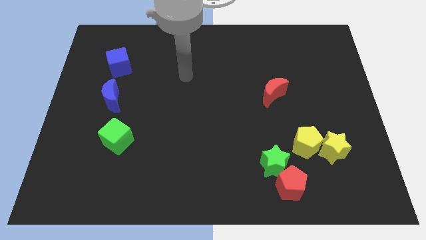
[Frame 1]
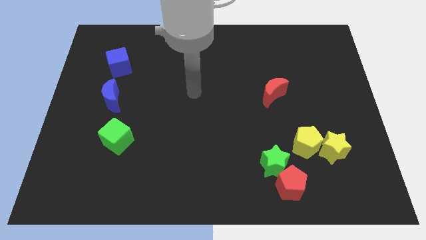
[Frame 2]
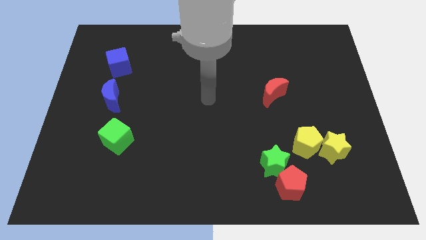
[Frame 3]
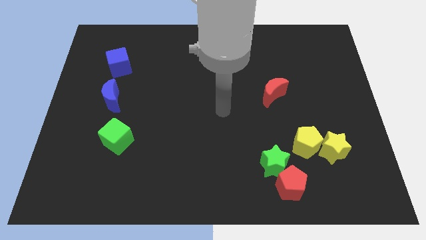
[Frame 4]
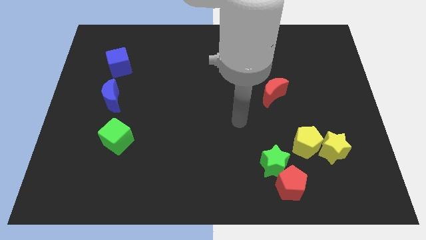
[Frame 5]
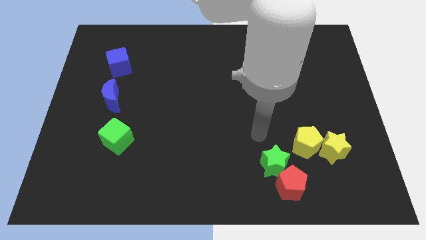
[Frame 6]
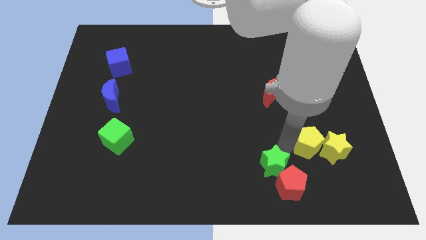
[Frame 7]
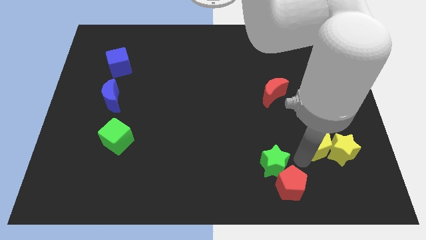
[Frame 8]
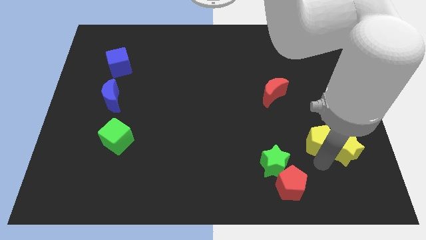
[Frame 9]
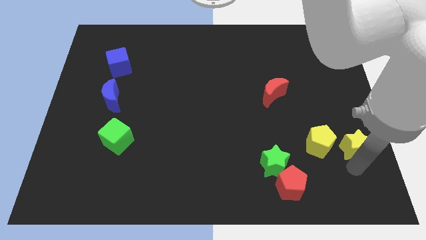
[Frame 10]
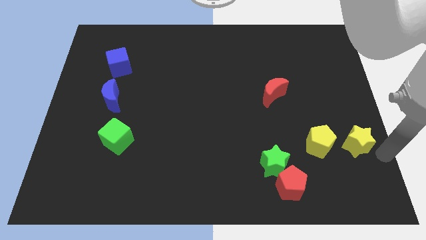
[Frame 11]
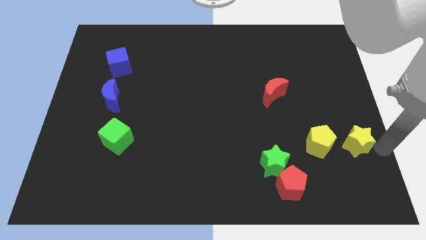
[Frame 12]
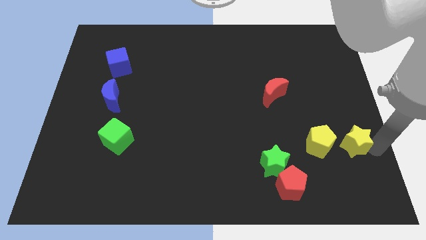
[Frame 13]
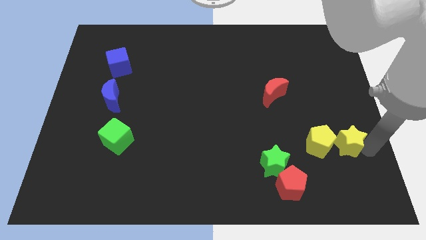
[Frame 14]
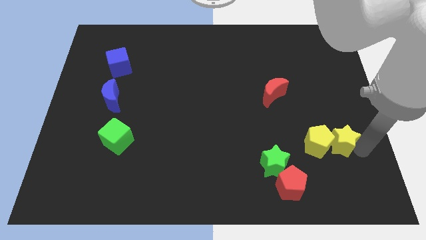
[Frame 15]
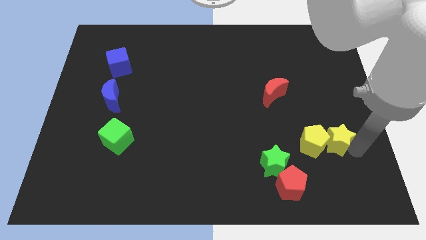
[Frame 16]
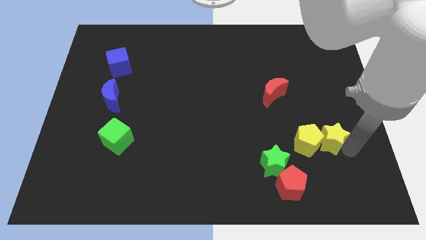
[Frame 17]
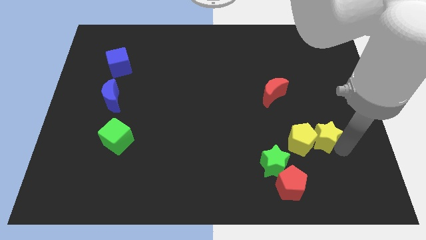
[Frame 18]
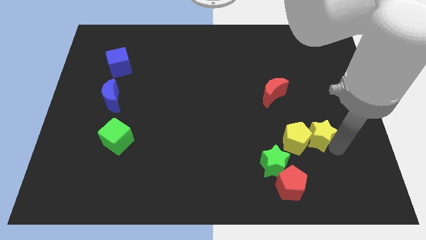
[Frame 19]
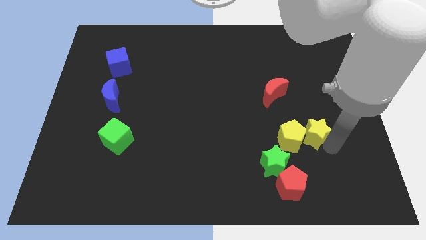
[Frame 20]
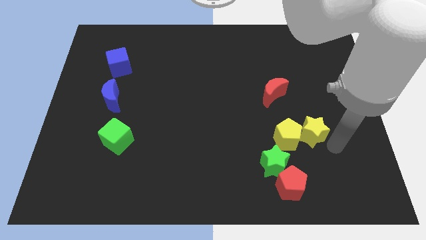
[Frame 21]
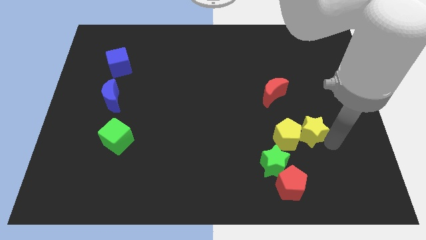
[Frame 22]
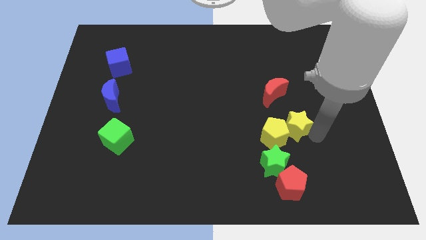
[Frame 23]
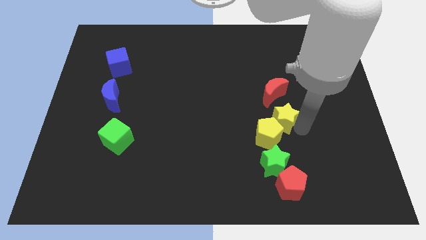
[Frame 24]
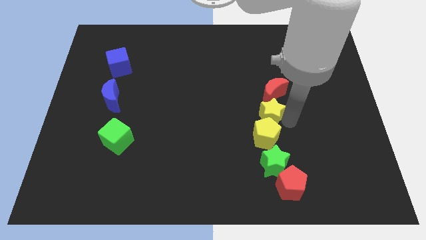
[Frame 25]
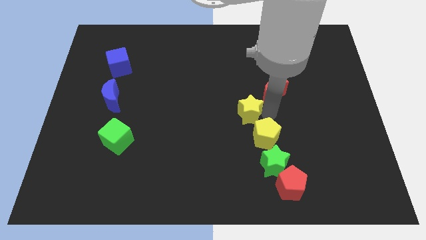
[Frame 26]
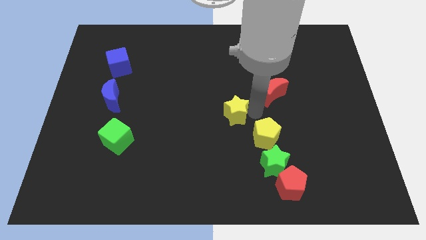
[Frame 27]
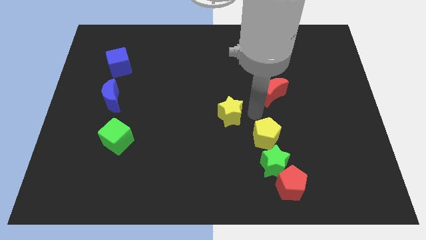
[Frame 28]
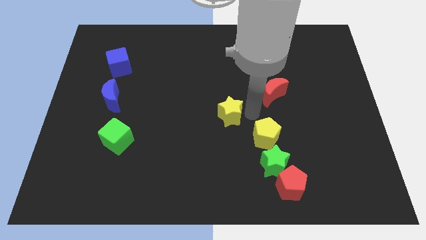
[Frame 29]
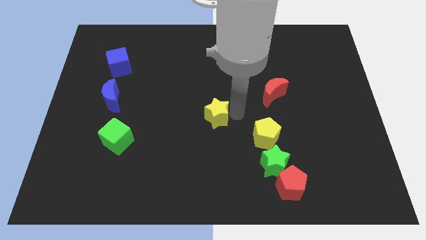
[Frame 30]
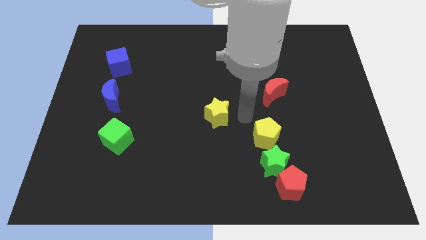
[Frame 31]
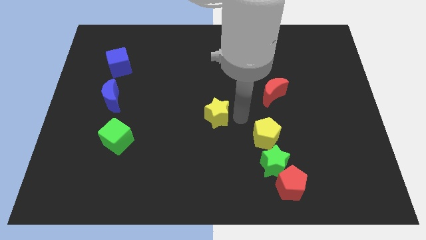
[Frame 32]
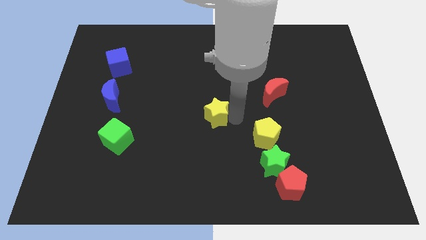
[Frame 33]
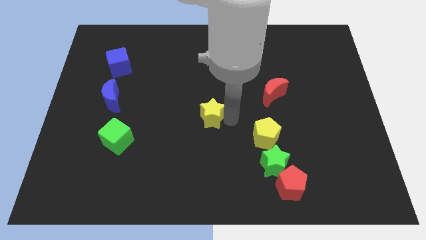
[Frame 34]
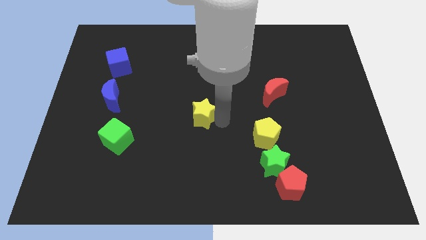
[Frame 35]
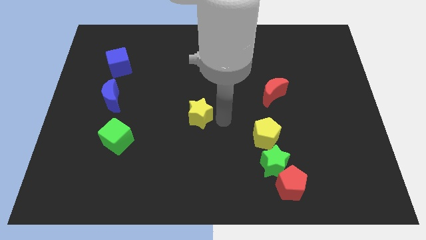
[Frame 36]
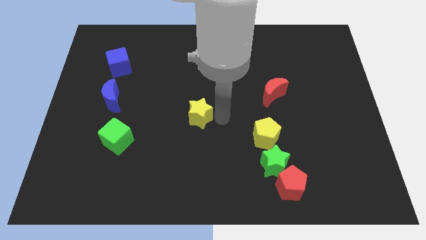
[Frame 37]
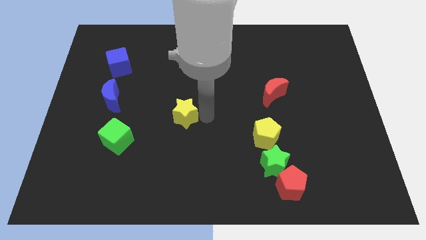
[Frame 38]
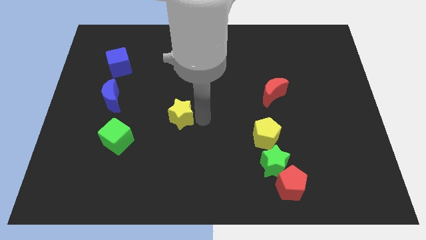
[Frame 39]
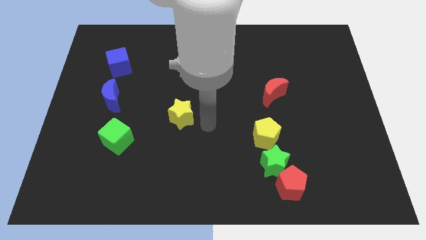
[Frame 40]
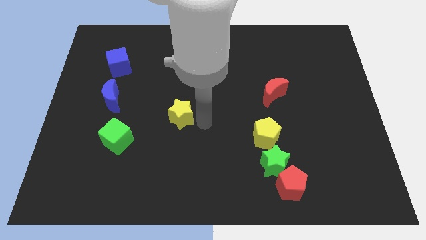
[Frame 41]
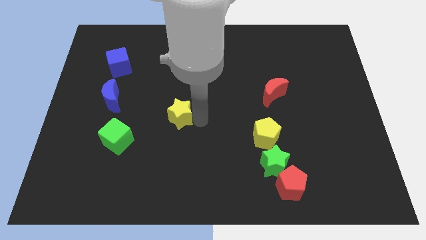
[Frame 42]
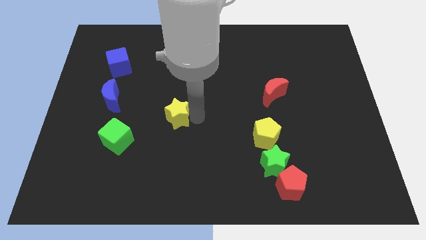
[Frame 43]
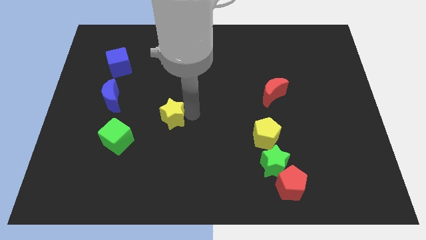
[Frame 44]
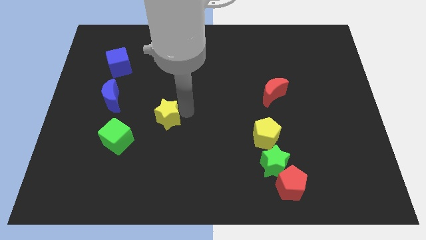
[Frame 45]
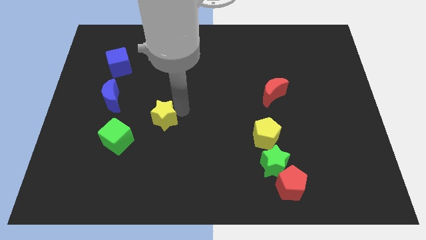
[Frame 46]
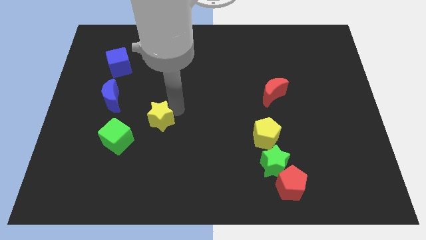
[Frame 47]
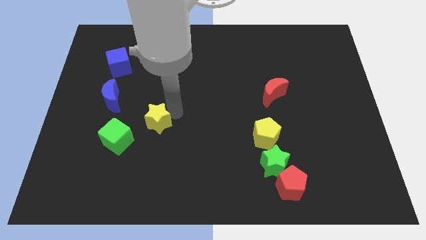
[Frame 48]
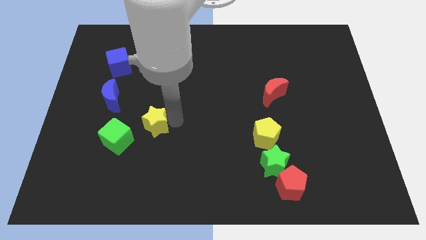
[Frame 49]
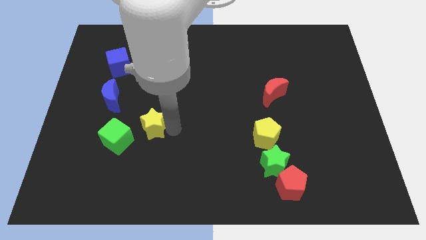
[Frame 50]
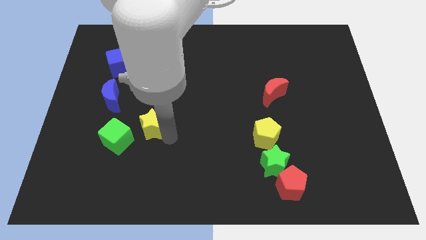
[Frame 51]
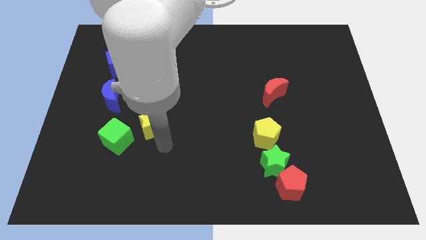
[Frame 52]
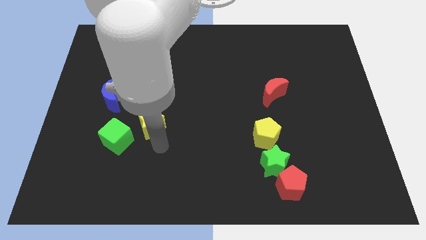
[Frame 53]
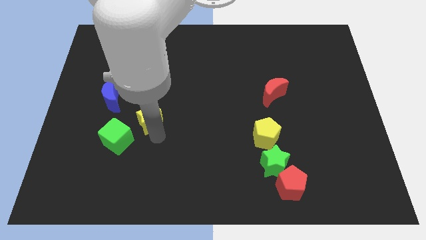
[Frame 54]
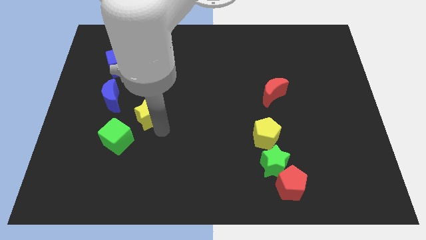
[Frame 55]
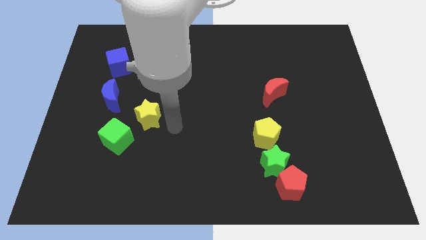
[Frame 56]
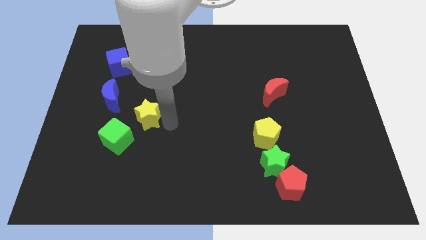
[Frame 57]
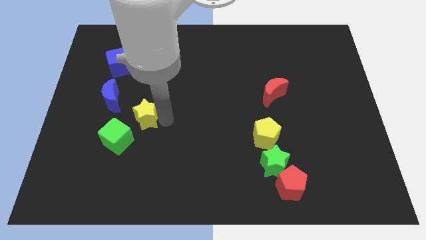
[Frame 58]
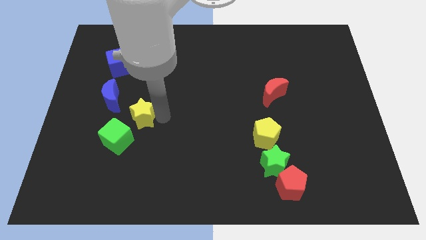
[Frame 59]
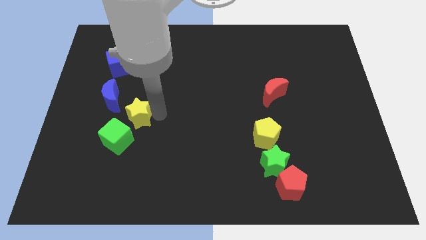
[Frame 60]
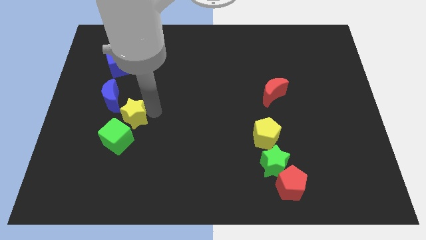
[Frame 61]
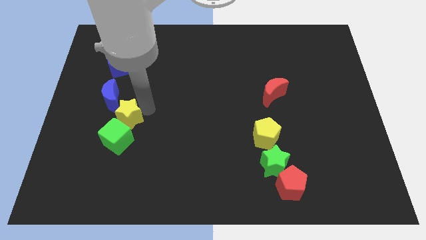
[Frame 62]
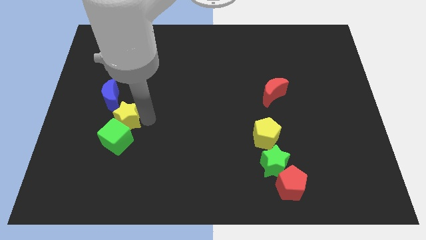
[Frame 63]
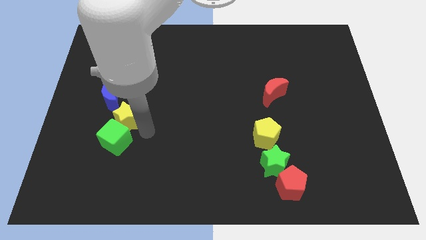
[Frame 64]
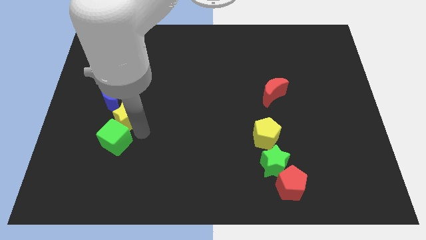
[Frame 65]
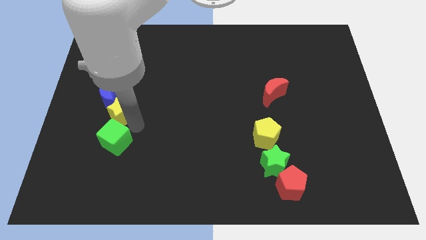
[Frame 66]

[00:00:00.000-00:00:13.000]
move the yellow star close to the blue moon

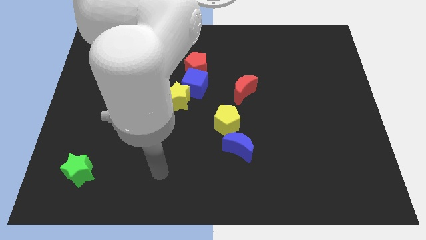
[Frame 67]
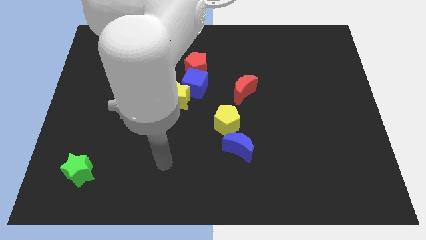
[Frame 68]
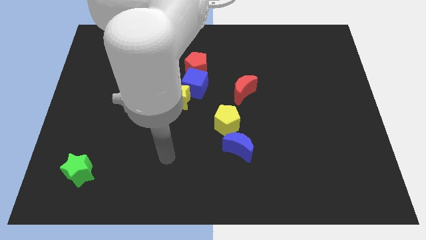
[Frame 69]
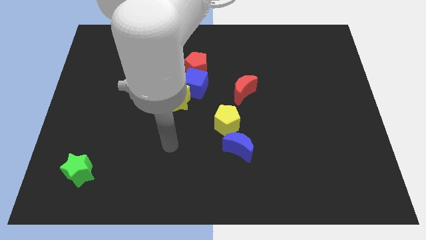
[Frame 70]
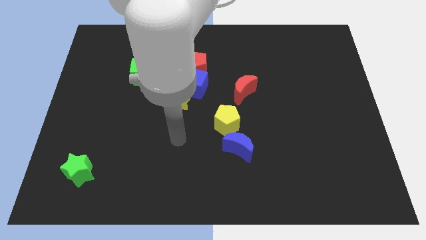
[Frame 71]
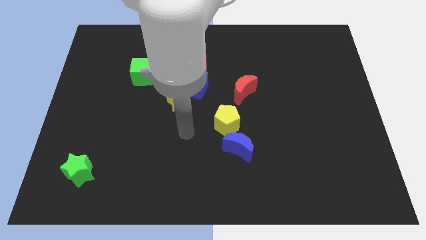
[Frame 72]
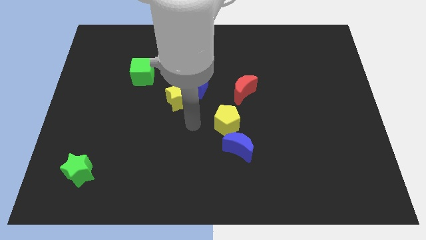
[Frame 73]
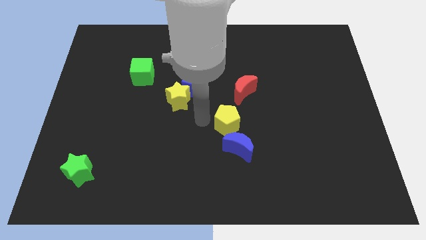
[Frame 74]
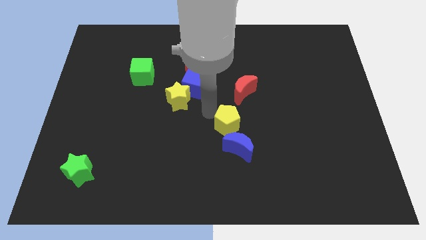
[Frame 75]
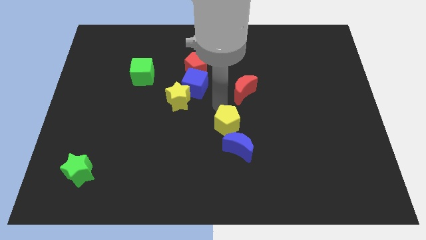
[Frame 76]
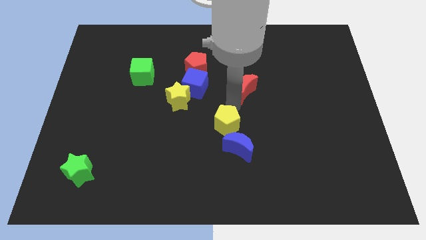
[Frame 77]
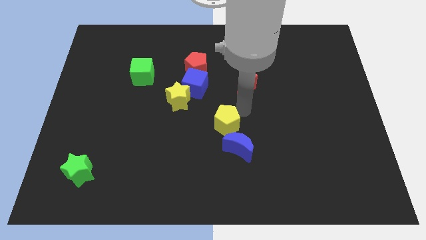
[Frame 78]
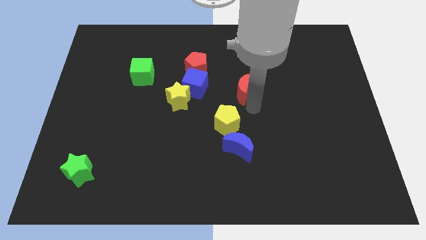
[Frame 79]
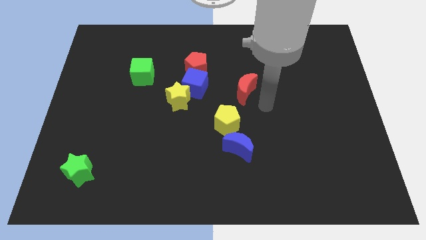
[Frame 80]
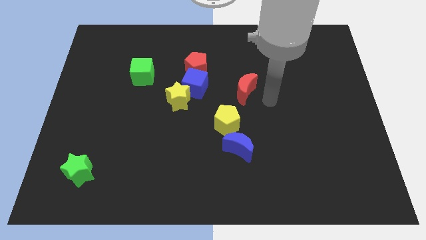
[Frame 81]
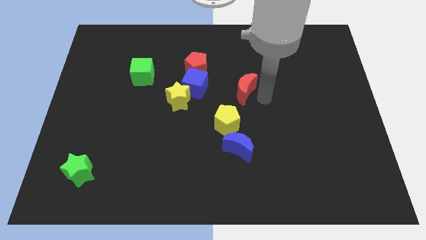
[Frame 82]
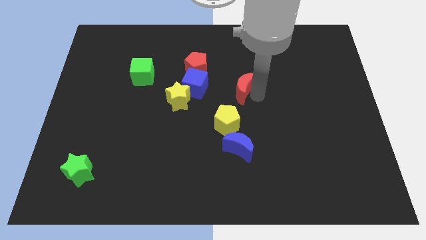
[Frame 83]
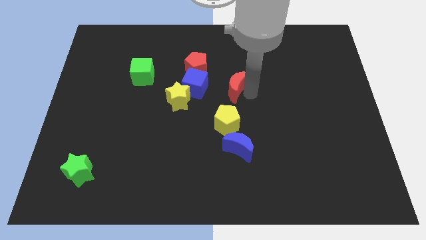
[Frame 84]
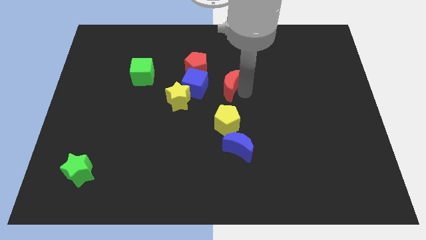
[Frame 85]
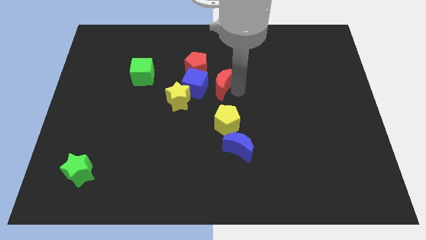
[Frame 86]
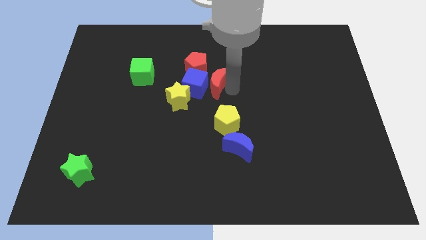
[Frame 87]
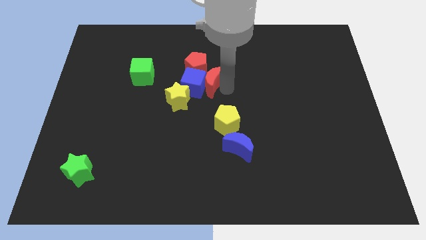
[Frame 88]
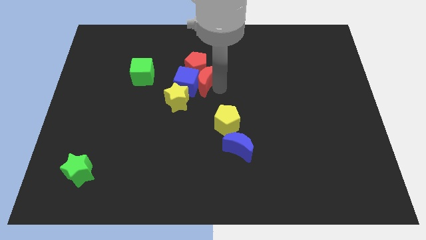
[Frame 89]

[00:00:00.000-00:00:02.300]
slide the red moon next to the red pentagon
